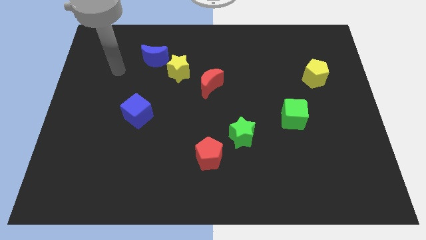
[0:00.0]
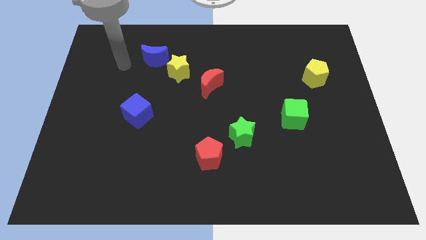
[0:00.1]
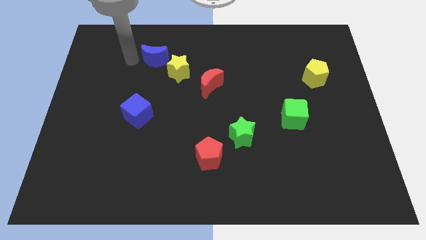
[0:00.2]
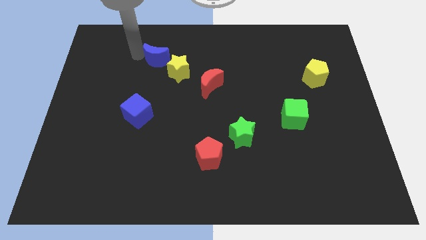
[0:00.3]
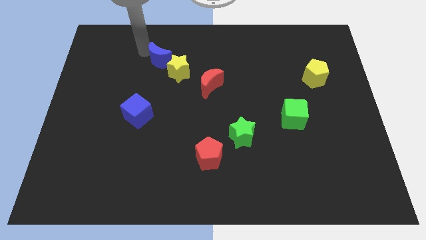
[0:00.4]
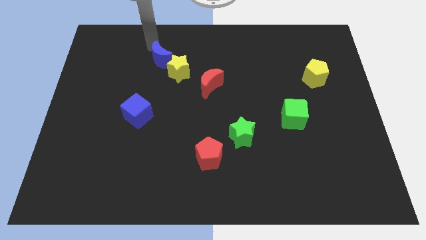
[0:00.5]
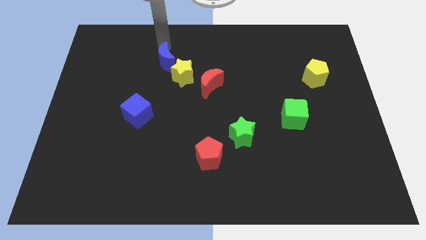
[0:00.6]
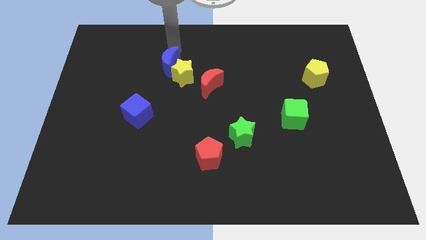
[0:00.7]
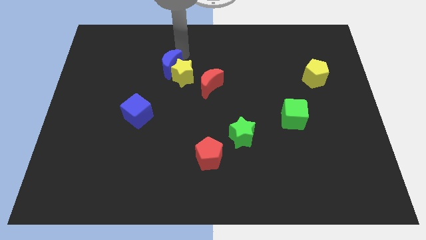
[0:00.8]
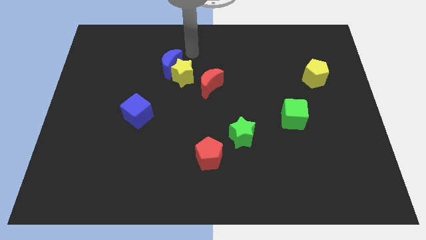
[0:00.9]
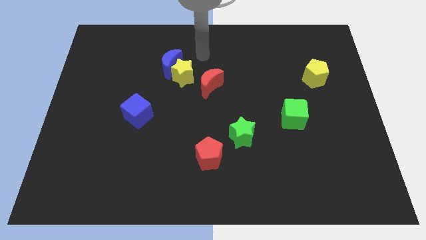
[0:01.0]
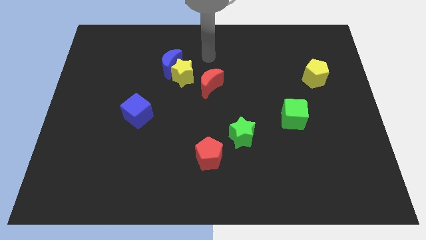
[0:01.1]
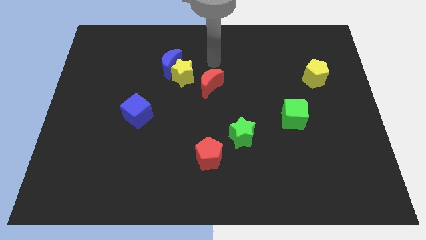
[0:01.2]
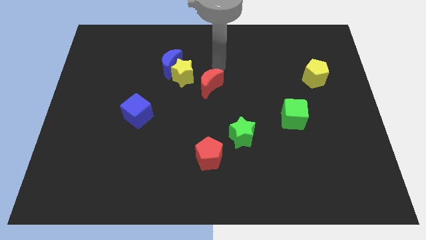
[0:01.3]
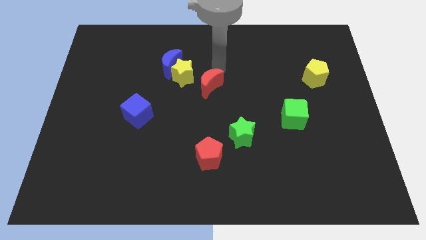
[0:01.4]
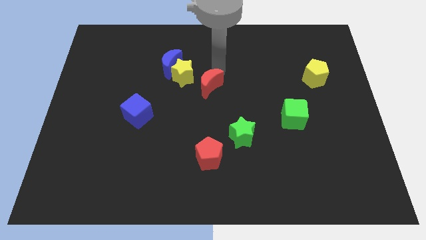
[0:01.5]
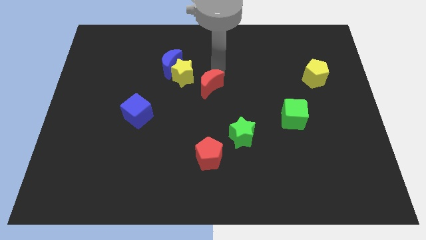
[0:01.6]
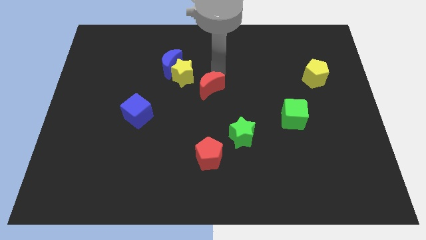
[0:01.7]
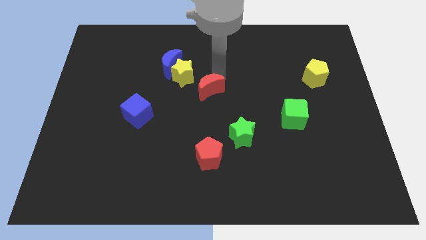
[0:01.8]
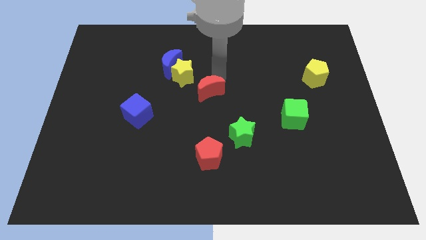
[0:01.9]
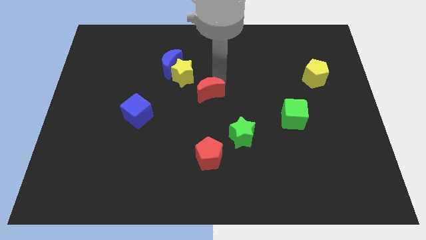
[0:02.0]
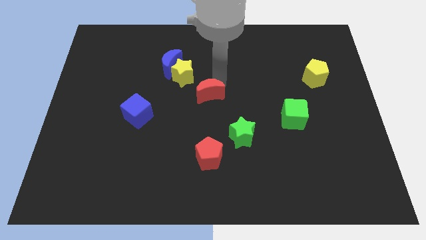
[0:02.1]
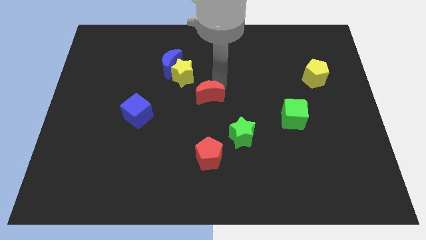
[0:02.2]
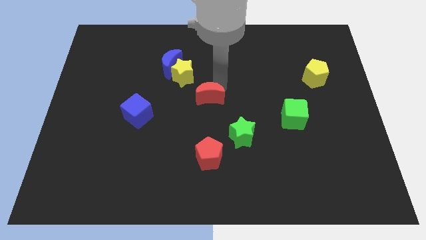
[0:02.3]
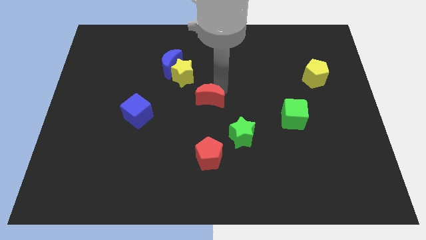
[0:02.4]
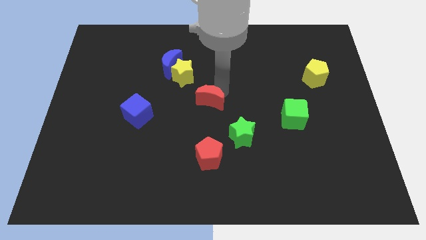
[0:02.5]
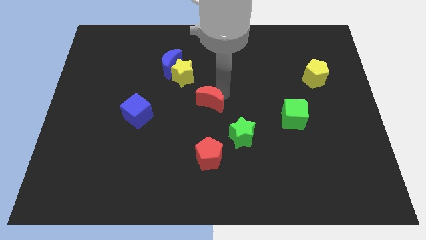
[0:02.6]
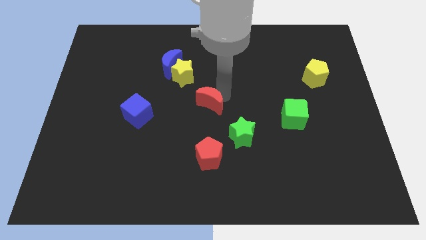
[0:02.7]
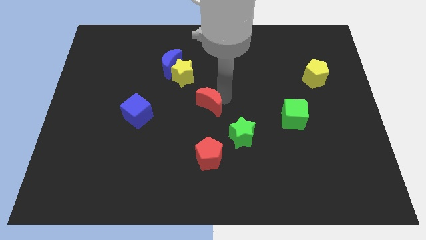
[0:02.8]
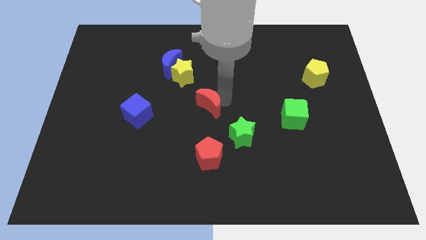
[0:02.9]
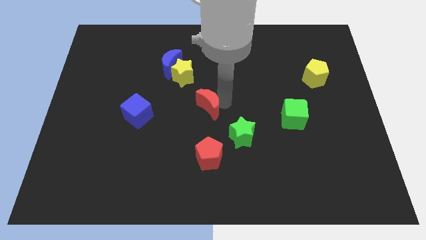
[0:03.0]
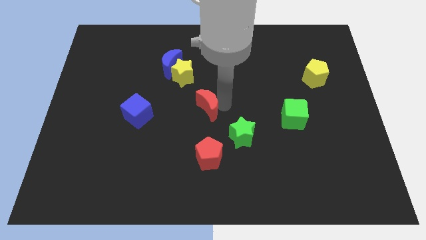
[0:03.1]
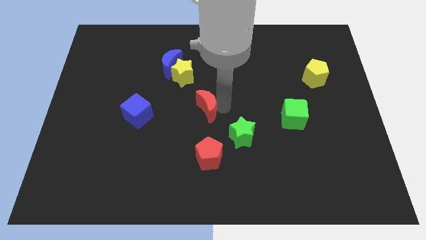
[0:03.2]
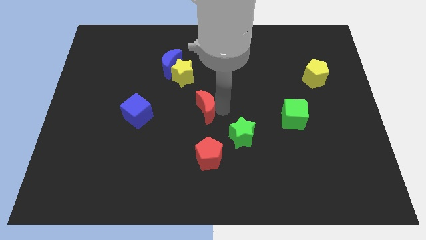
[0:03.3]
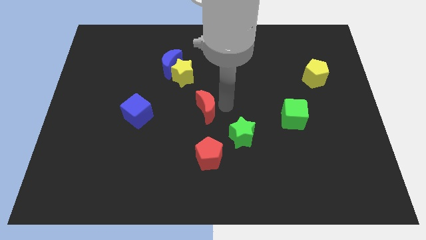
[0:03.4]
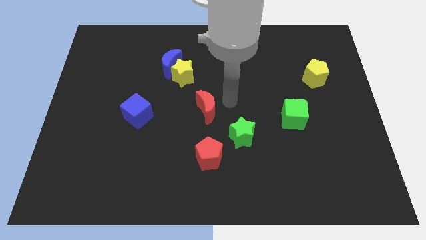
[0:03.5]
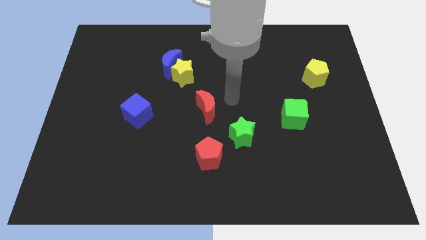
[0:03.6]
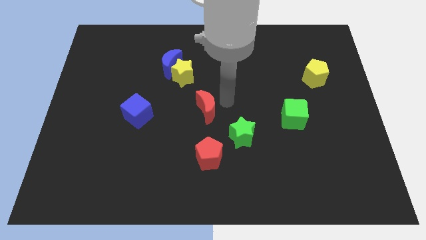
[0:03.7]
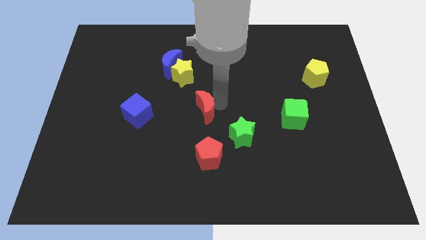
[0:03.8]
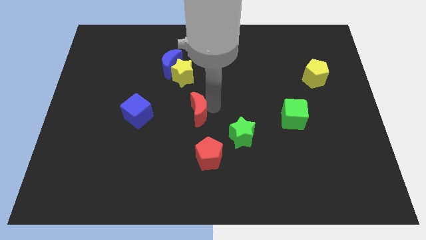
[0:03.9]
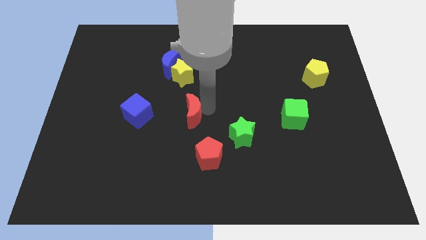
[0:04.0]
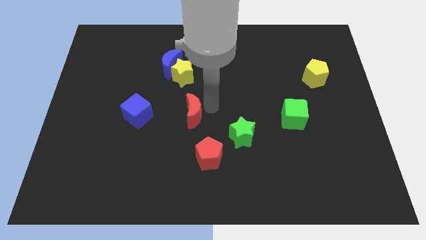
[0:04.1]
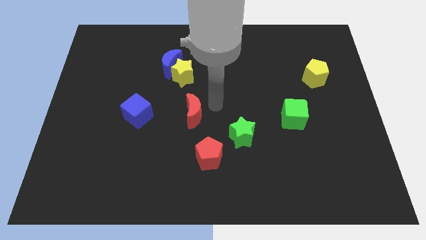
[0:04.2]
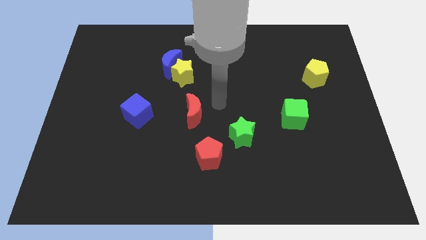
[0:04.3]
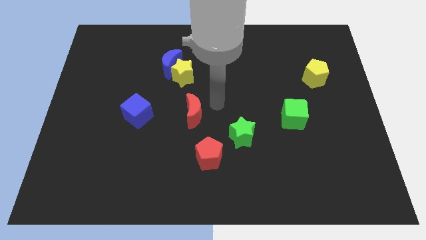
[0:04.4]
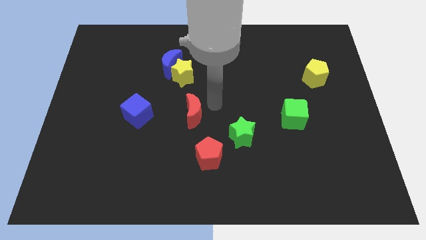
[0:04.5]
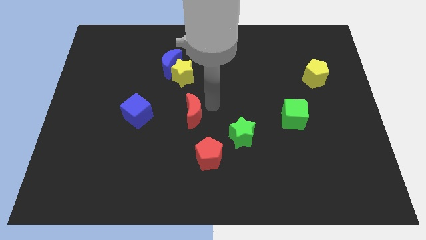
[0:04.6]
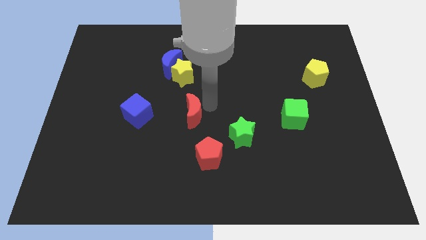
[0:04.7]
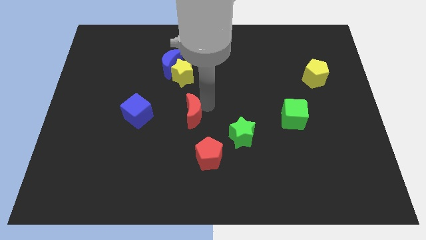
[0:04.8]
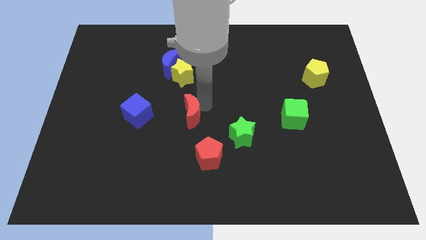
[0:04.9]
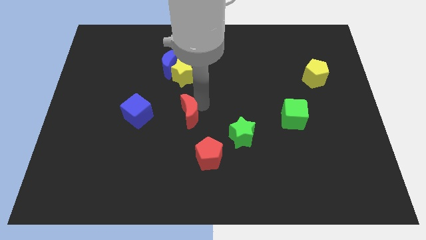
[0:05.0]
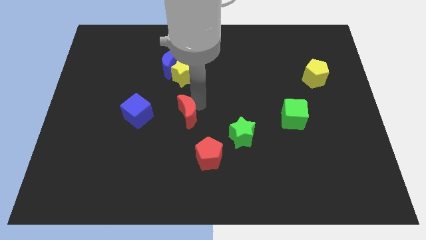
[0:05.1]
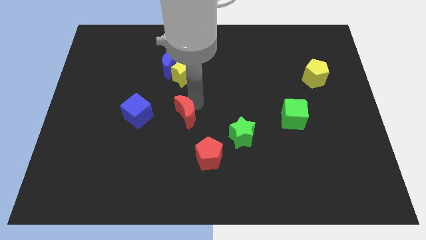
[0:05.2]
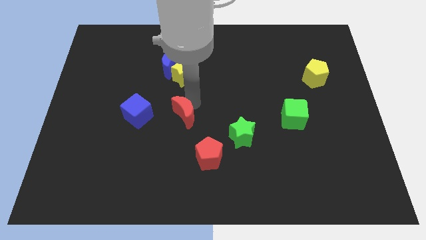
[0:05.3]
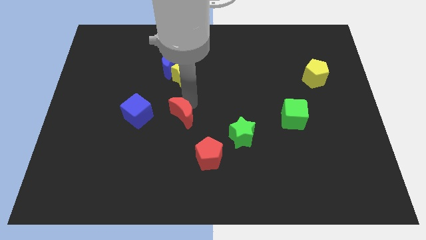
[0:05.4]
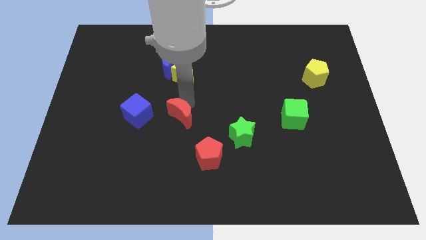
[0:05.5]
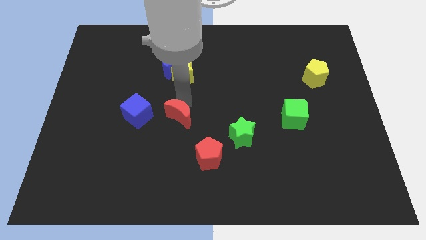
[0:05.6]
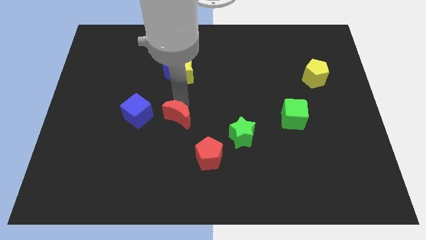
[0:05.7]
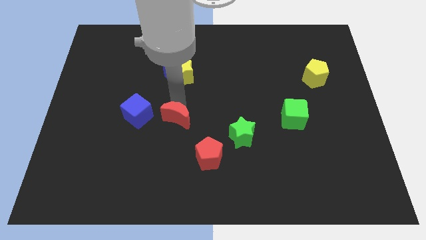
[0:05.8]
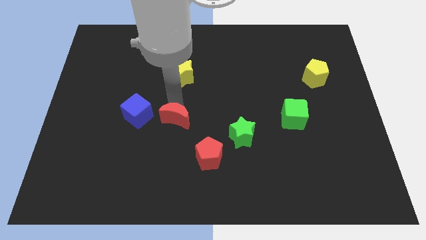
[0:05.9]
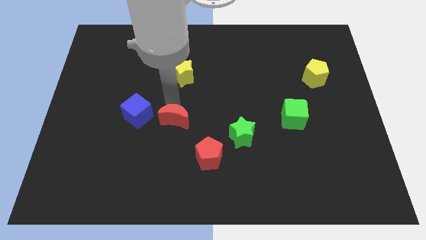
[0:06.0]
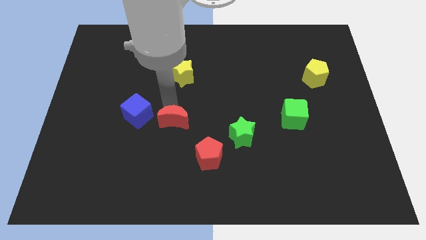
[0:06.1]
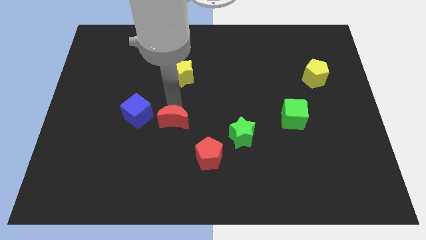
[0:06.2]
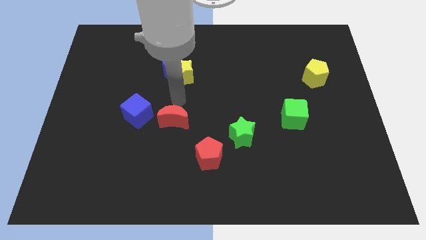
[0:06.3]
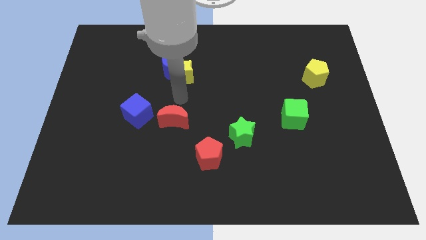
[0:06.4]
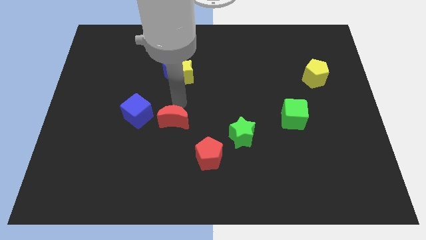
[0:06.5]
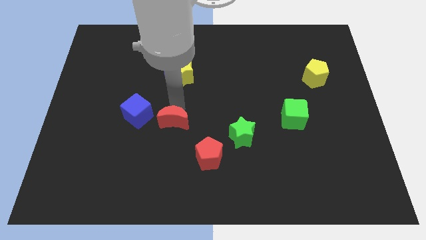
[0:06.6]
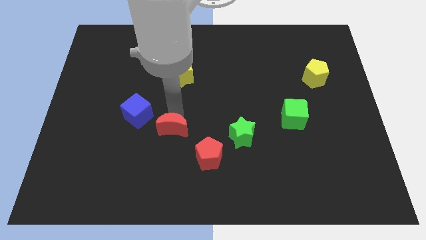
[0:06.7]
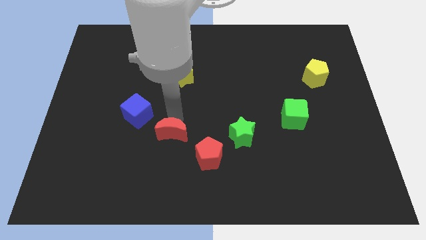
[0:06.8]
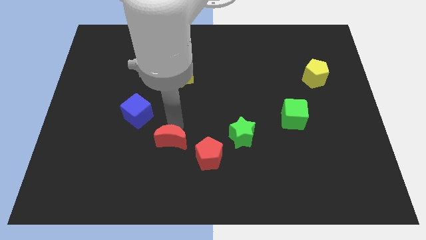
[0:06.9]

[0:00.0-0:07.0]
put the red moon left of the red pentagon

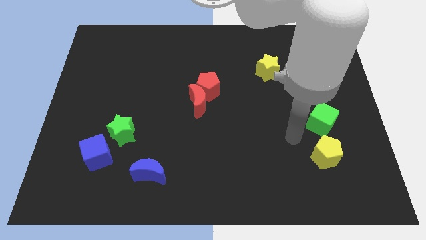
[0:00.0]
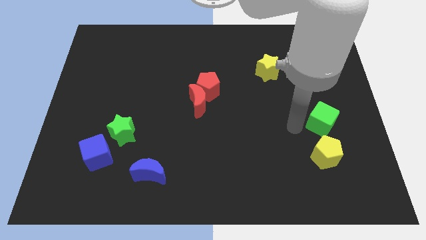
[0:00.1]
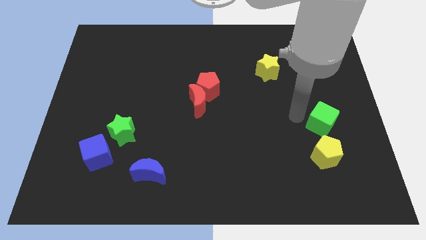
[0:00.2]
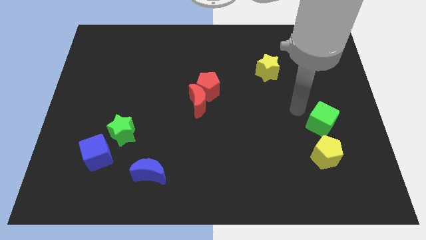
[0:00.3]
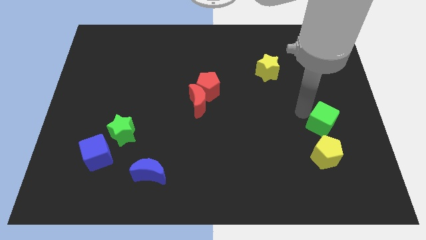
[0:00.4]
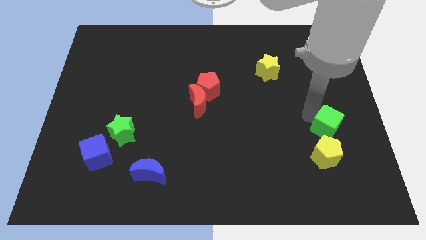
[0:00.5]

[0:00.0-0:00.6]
put the green cube diagonally up and to the right of the yellow pentagon
